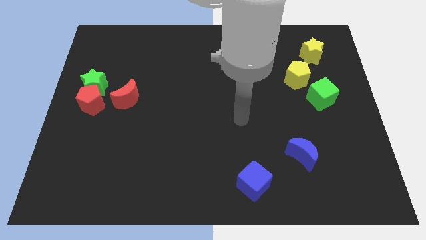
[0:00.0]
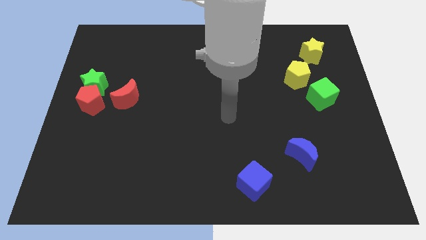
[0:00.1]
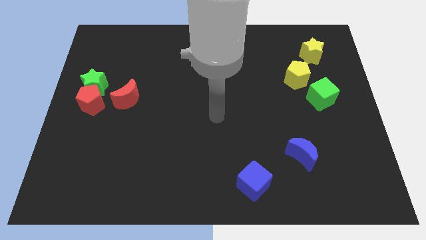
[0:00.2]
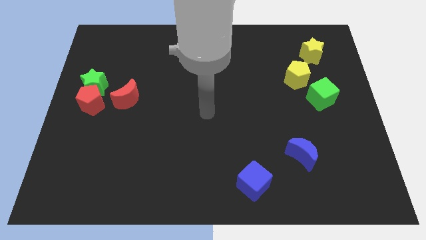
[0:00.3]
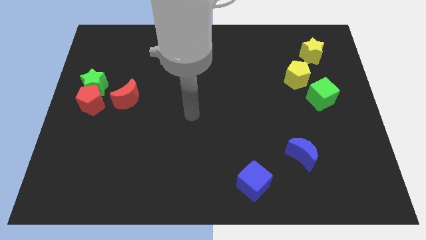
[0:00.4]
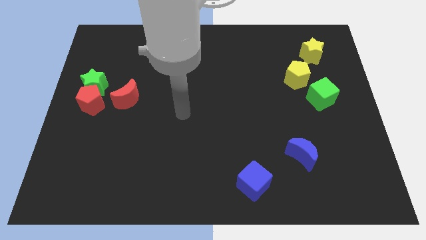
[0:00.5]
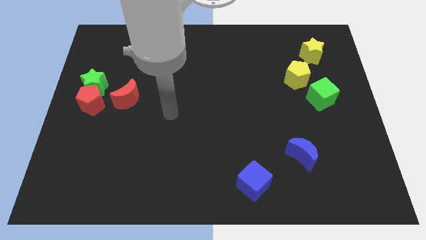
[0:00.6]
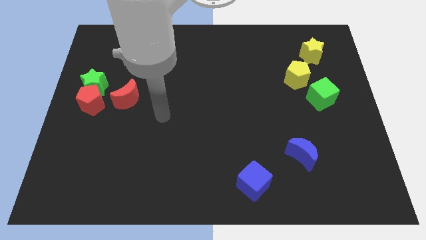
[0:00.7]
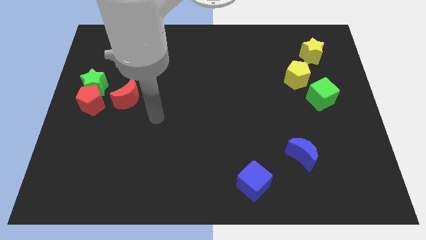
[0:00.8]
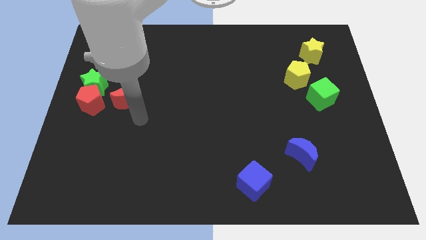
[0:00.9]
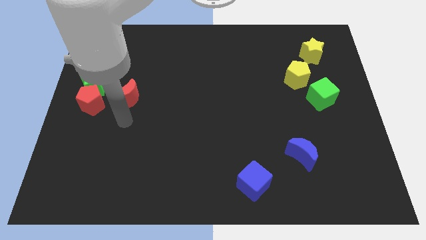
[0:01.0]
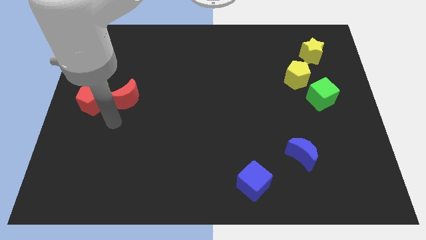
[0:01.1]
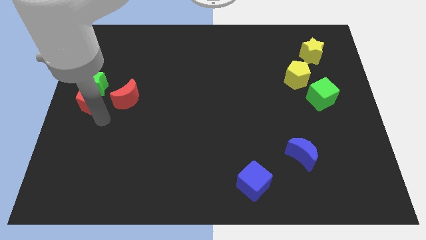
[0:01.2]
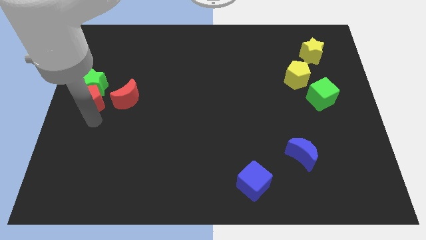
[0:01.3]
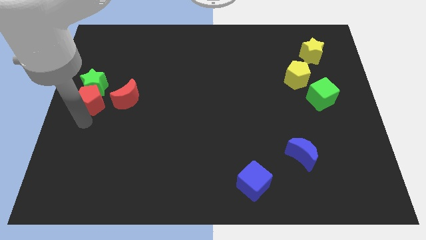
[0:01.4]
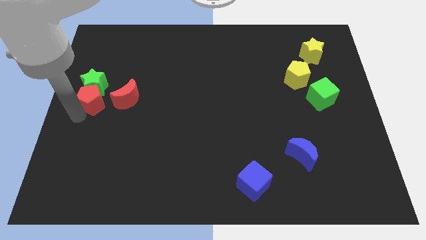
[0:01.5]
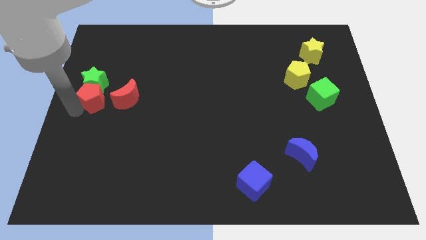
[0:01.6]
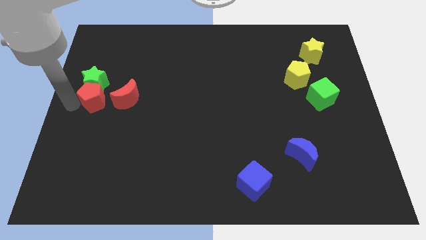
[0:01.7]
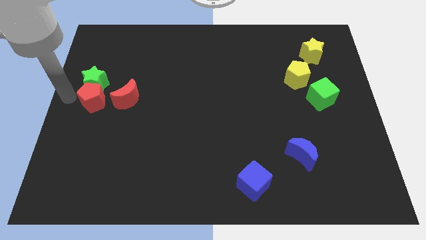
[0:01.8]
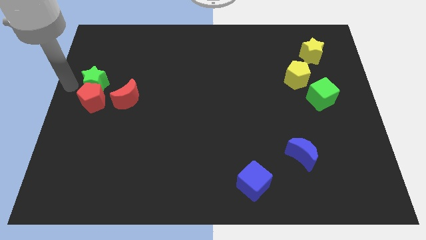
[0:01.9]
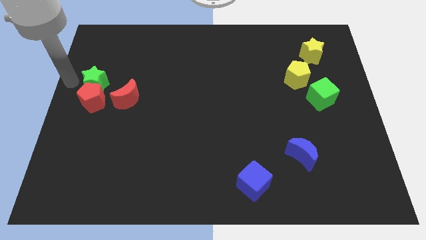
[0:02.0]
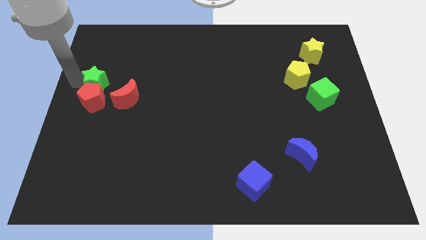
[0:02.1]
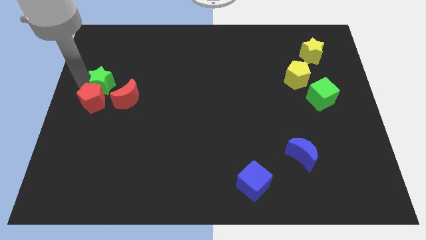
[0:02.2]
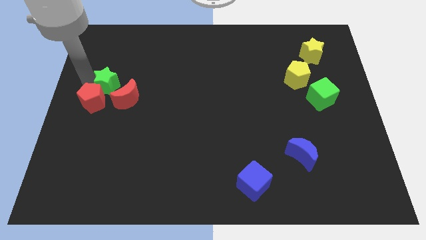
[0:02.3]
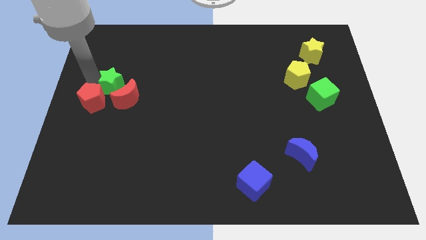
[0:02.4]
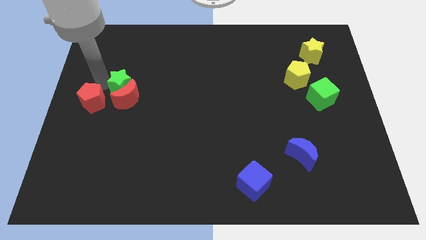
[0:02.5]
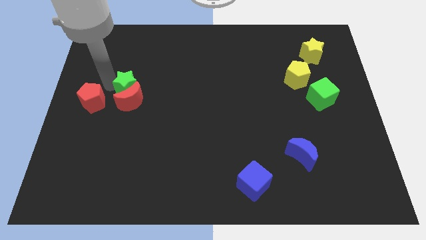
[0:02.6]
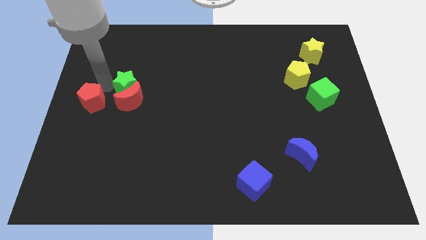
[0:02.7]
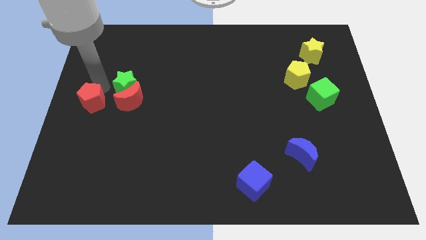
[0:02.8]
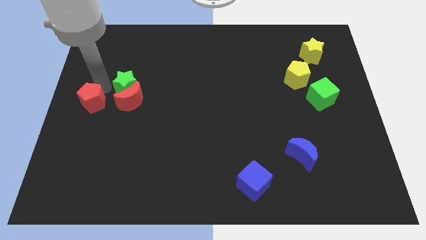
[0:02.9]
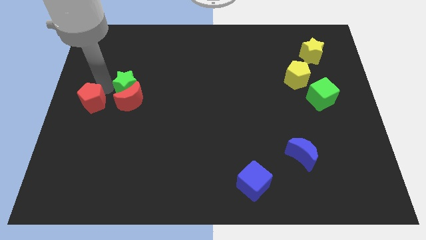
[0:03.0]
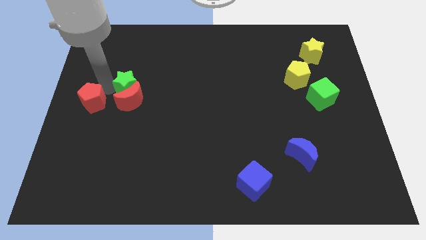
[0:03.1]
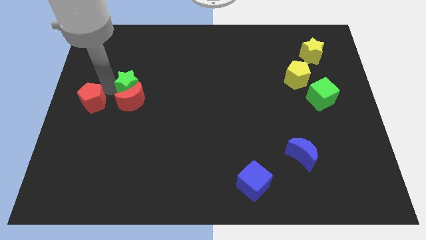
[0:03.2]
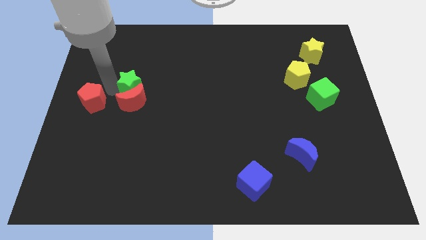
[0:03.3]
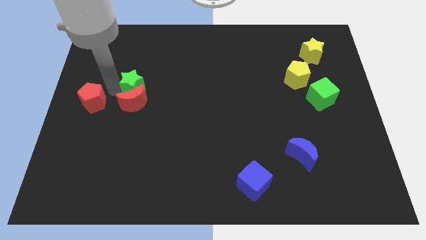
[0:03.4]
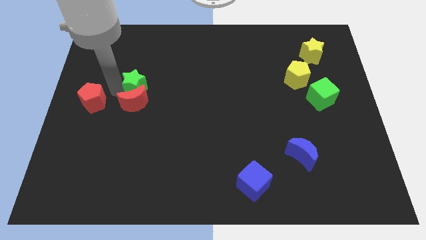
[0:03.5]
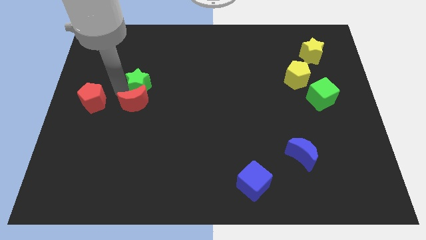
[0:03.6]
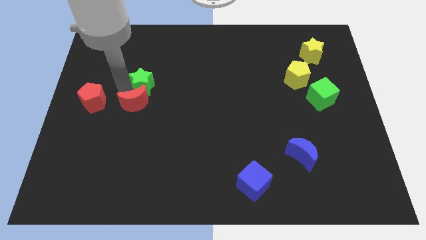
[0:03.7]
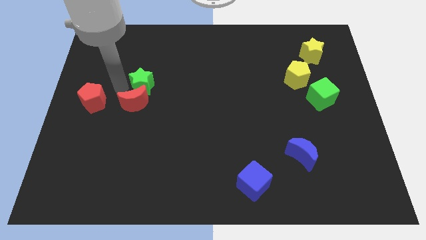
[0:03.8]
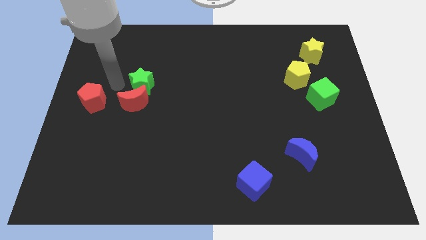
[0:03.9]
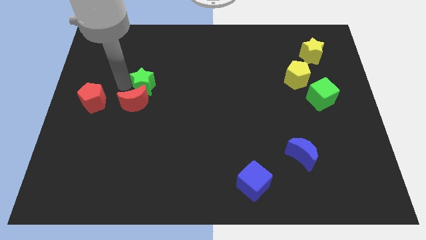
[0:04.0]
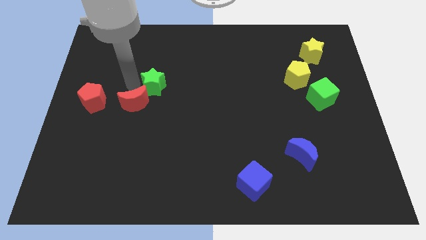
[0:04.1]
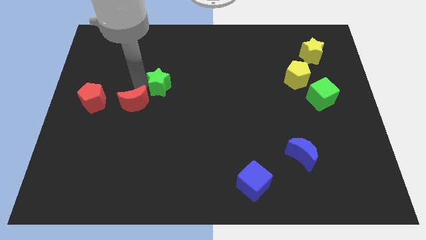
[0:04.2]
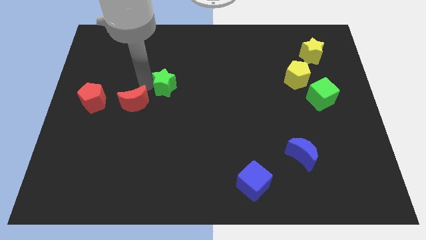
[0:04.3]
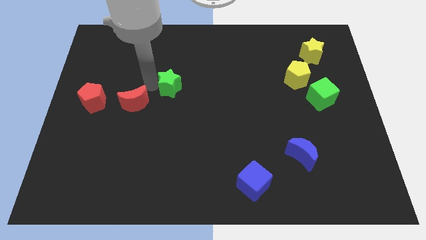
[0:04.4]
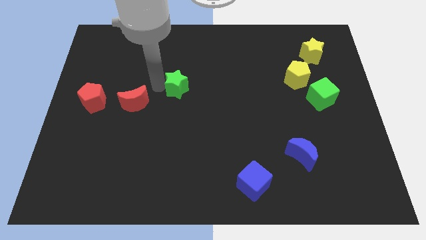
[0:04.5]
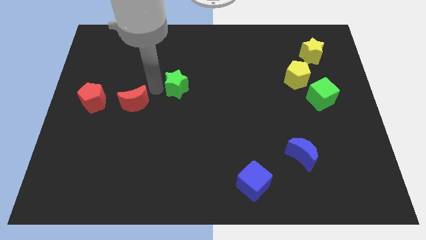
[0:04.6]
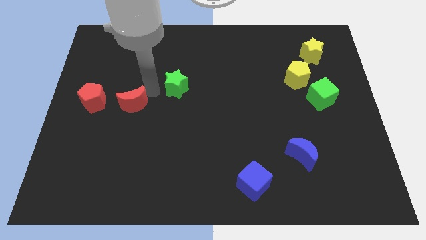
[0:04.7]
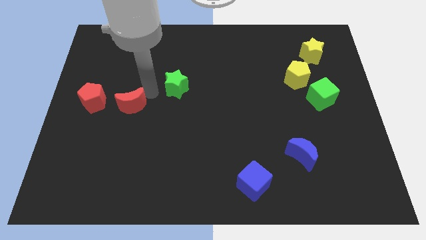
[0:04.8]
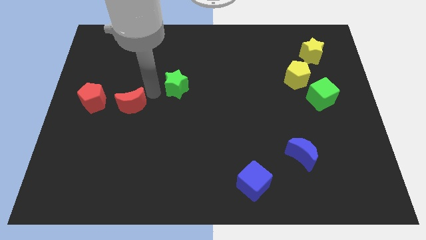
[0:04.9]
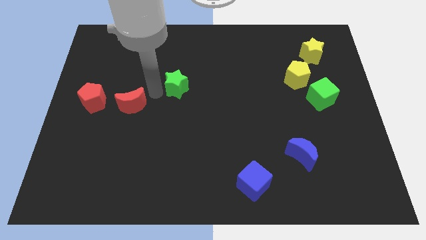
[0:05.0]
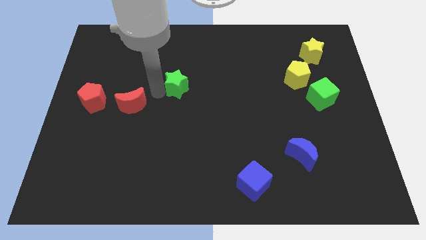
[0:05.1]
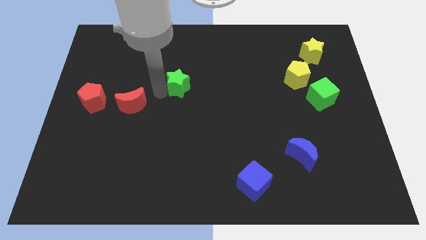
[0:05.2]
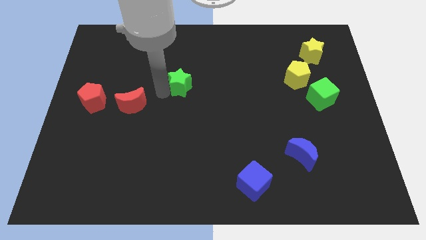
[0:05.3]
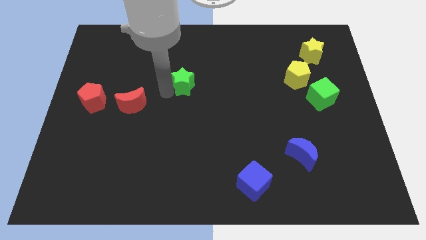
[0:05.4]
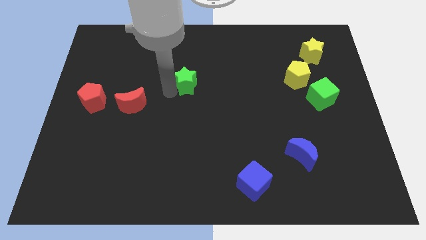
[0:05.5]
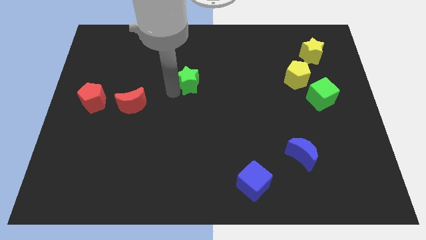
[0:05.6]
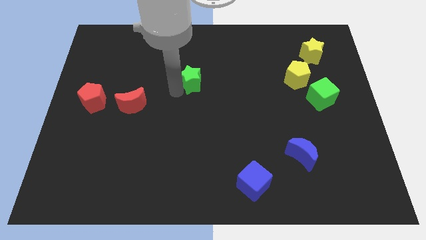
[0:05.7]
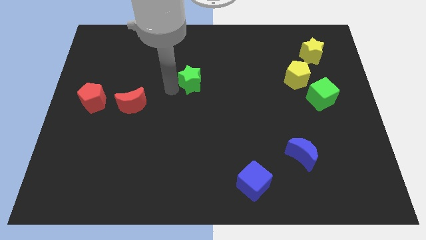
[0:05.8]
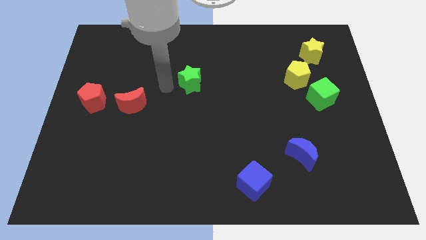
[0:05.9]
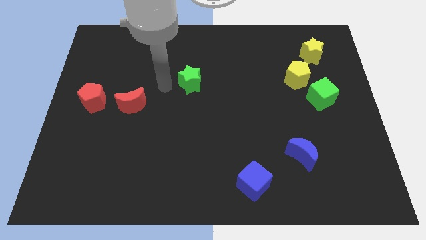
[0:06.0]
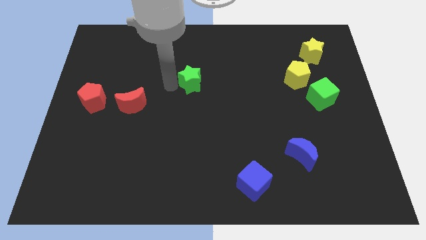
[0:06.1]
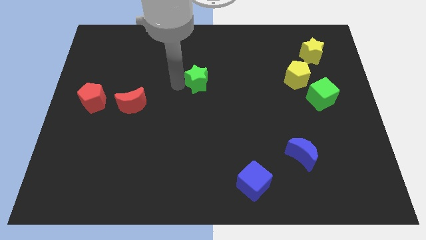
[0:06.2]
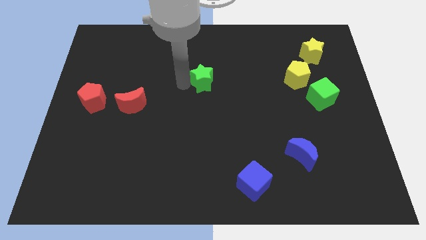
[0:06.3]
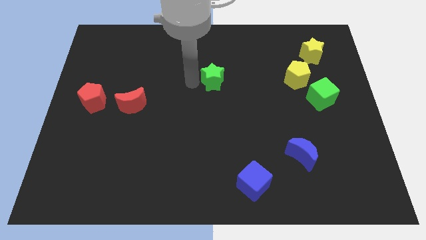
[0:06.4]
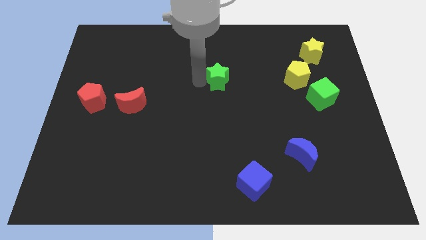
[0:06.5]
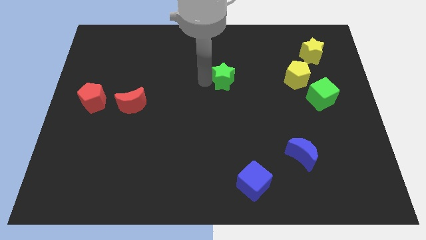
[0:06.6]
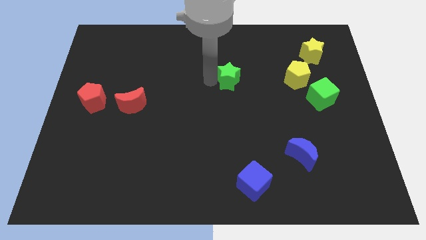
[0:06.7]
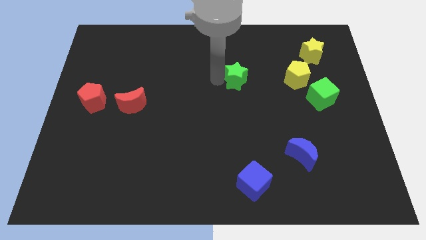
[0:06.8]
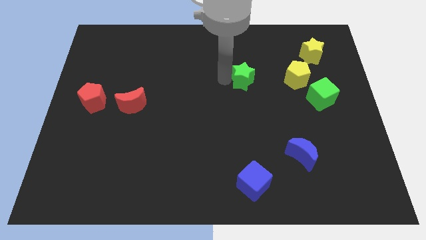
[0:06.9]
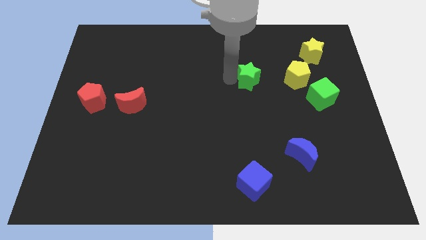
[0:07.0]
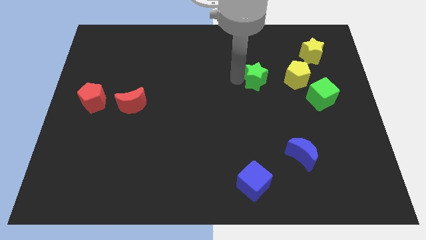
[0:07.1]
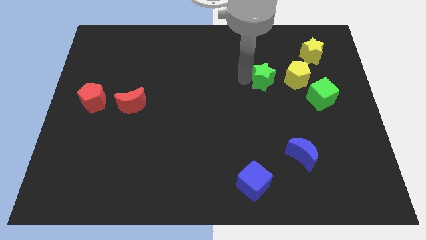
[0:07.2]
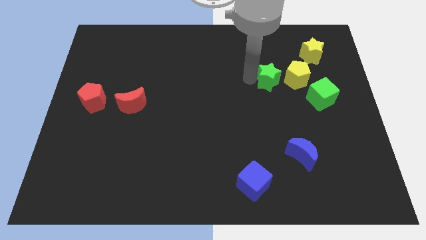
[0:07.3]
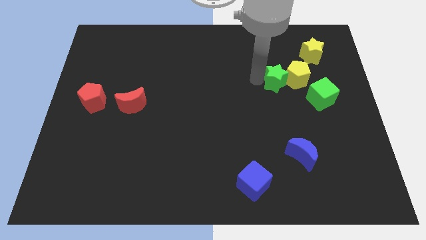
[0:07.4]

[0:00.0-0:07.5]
slide the green star next to the yellow pentagon
